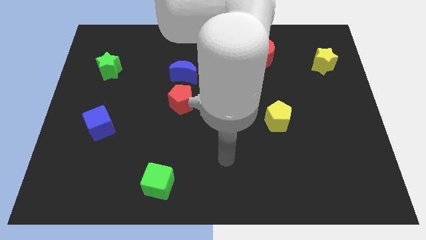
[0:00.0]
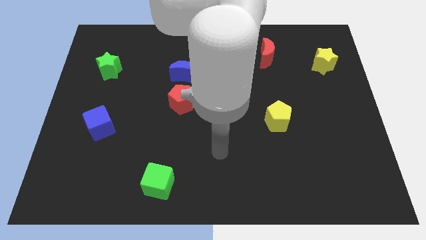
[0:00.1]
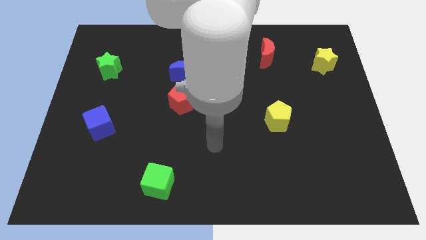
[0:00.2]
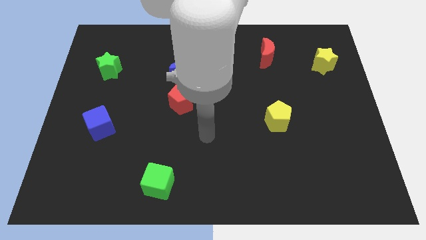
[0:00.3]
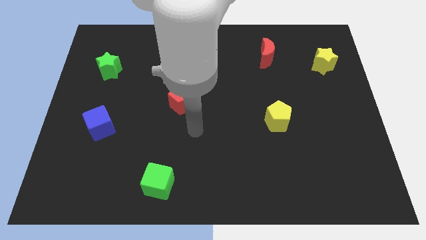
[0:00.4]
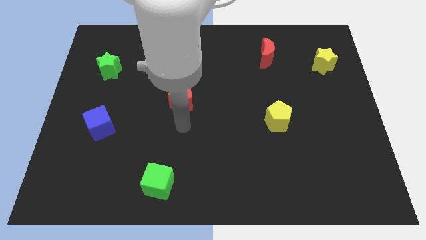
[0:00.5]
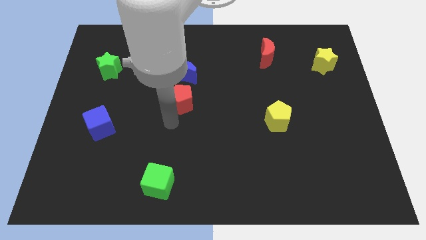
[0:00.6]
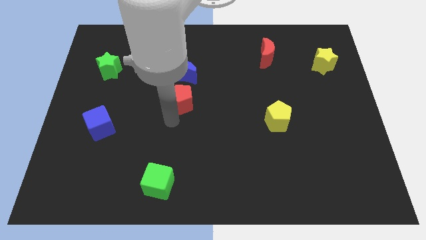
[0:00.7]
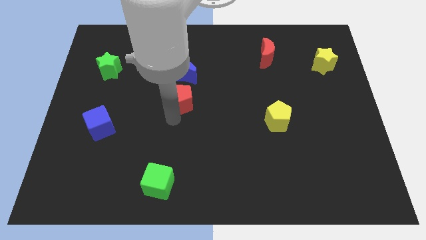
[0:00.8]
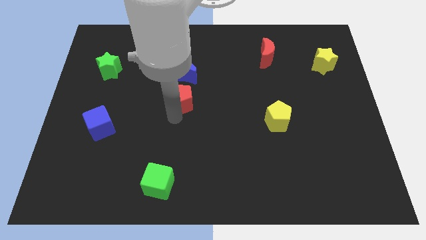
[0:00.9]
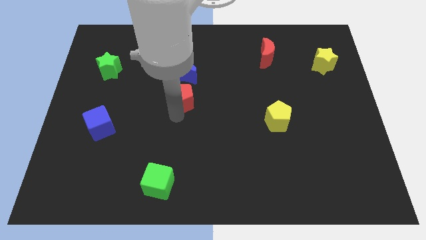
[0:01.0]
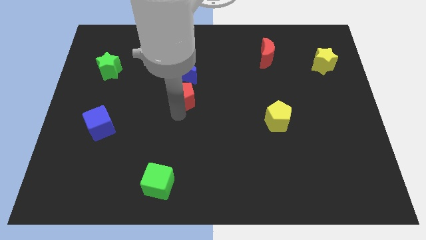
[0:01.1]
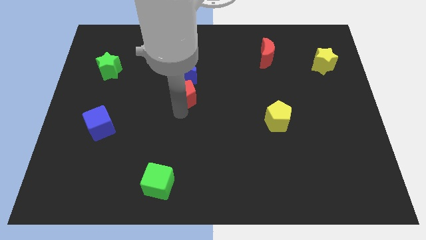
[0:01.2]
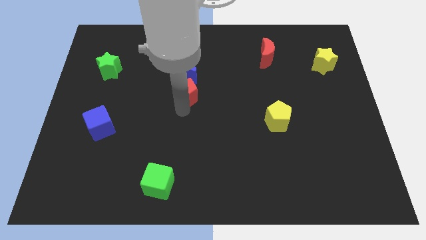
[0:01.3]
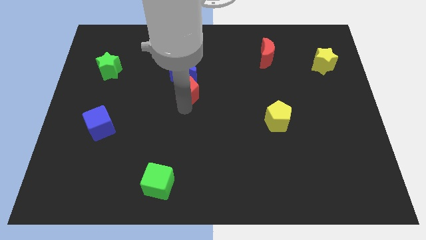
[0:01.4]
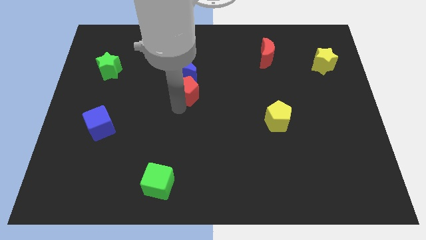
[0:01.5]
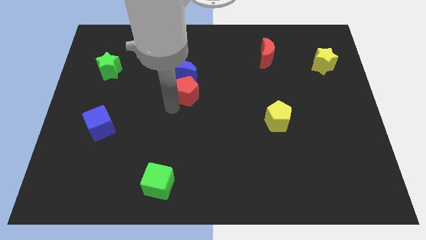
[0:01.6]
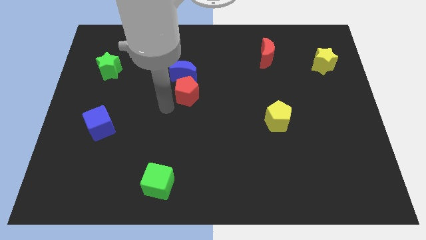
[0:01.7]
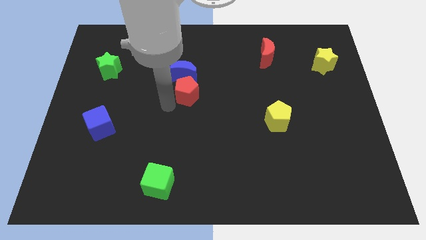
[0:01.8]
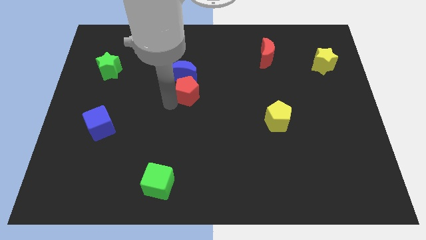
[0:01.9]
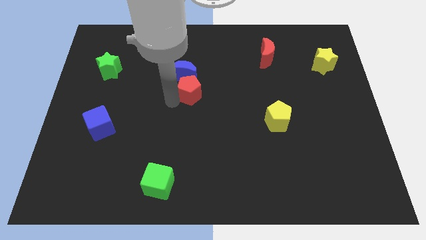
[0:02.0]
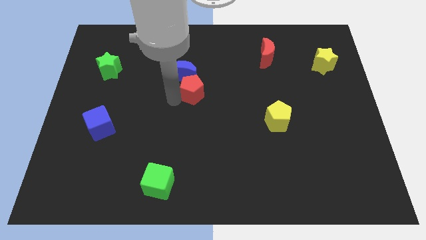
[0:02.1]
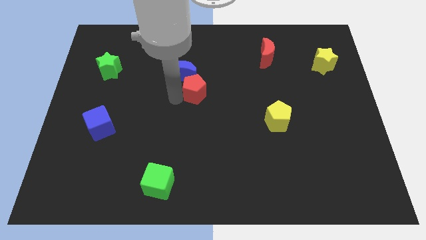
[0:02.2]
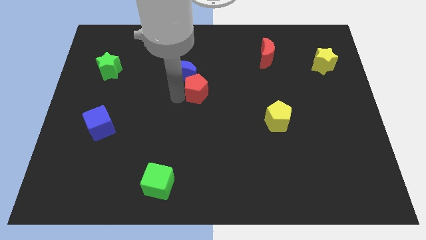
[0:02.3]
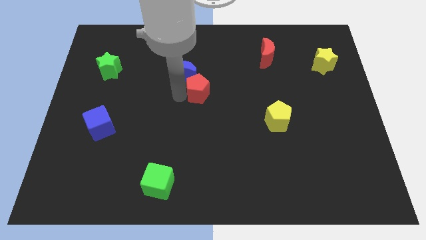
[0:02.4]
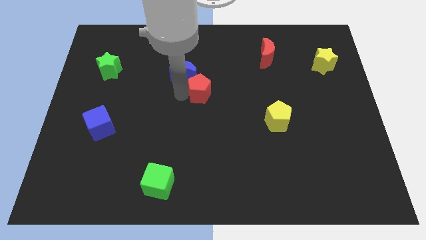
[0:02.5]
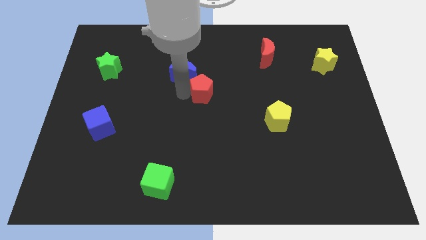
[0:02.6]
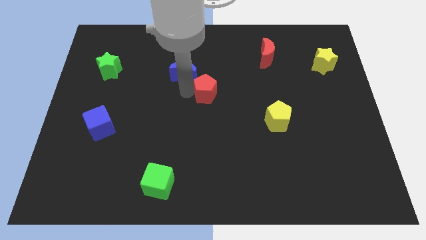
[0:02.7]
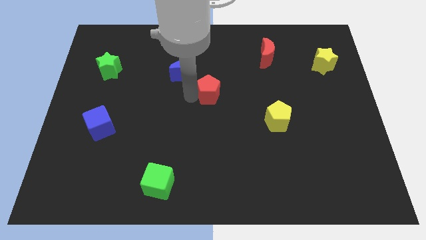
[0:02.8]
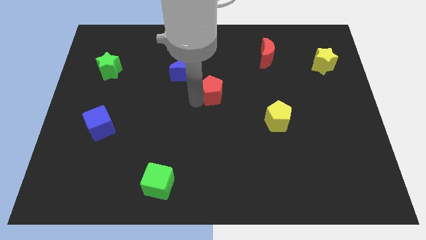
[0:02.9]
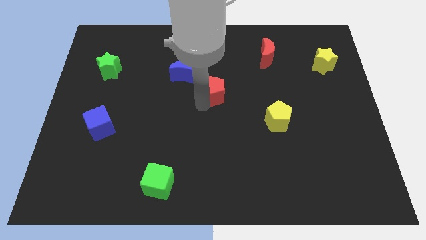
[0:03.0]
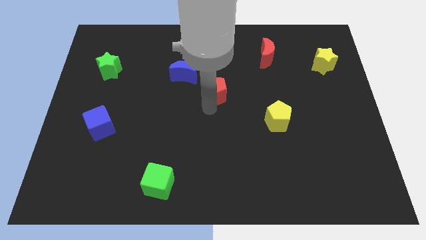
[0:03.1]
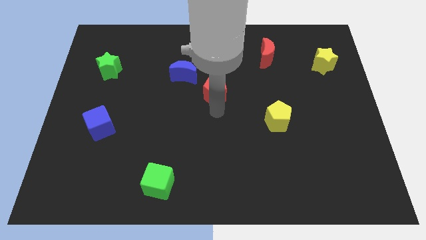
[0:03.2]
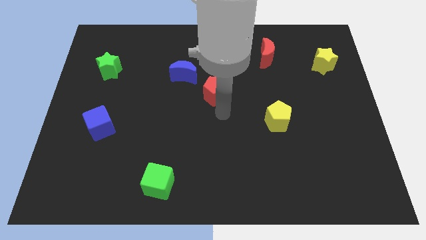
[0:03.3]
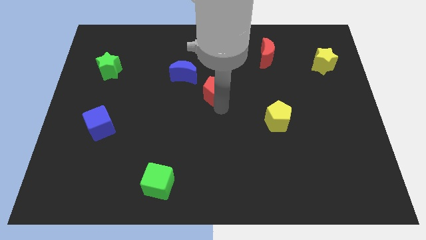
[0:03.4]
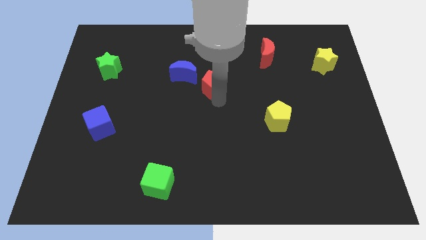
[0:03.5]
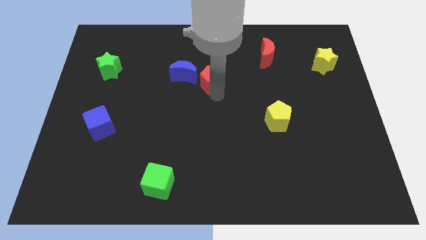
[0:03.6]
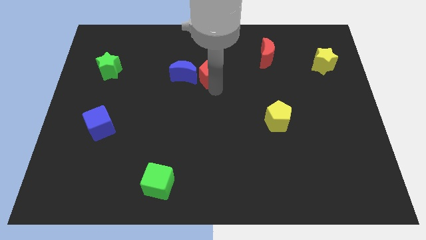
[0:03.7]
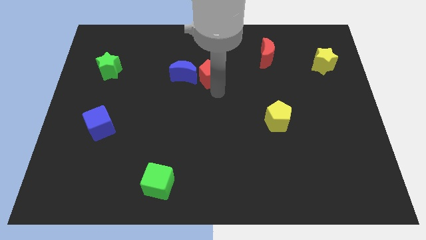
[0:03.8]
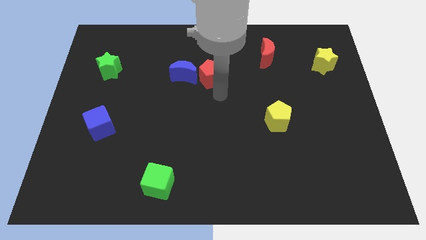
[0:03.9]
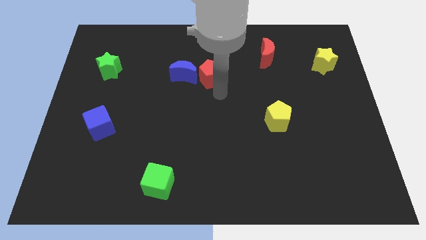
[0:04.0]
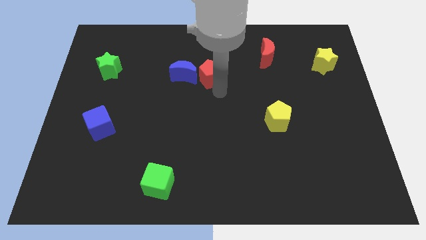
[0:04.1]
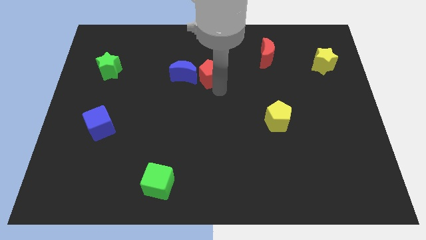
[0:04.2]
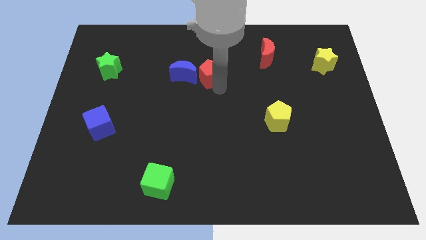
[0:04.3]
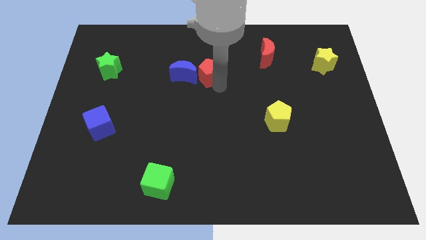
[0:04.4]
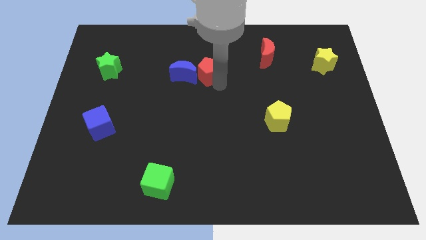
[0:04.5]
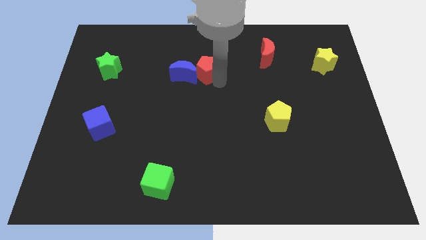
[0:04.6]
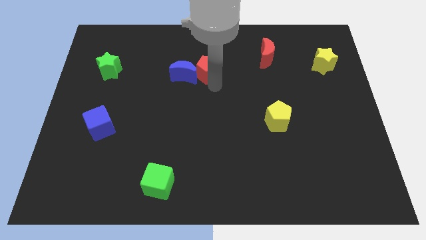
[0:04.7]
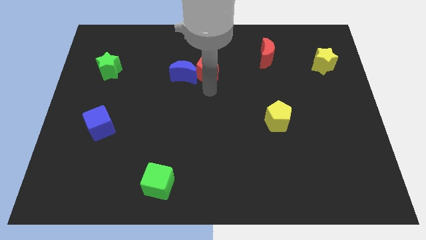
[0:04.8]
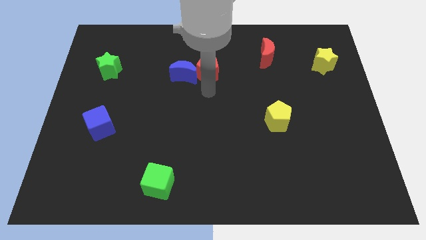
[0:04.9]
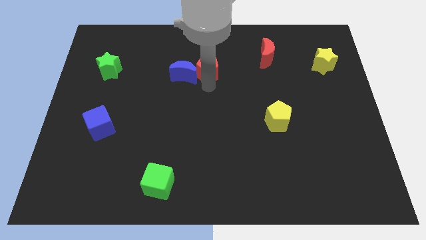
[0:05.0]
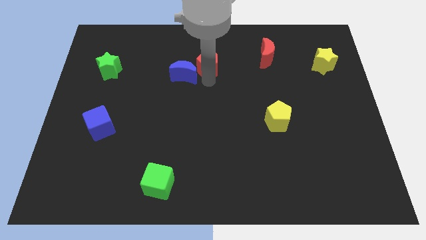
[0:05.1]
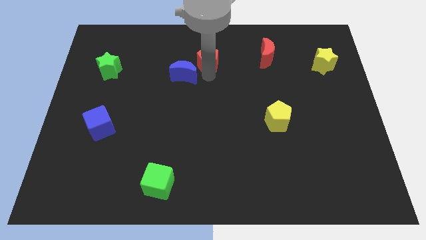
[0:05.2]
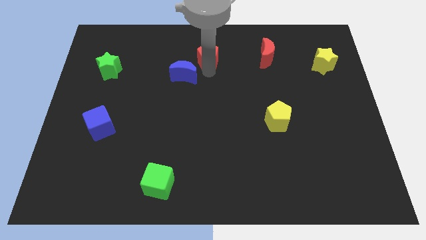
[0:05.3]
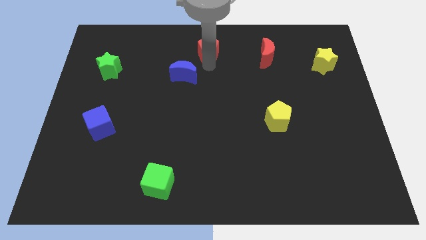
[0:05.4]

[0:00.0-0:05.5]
put the red pentagon to the towards your base

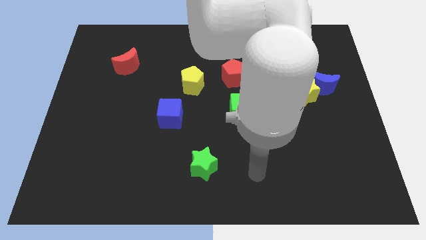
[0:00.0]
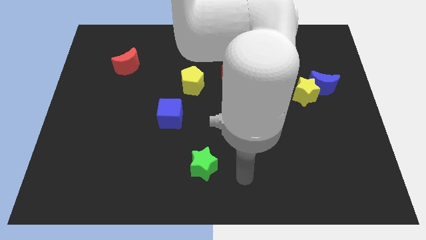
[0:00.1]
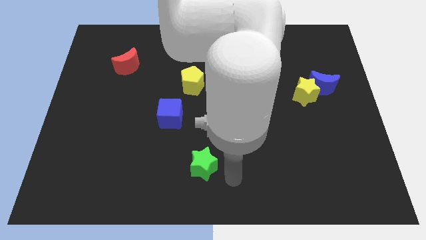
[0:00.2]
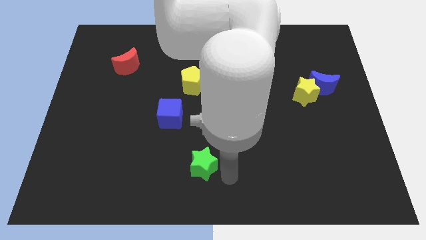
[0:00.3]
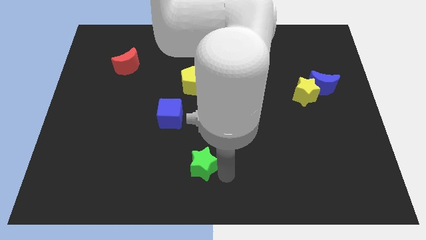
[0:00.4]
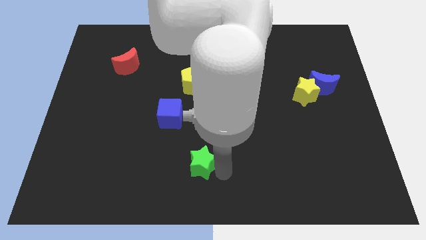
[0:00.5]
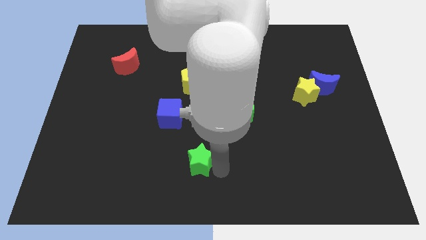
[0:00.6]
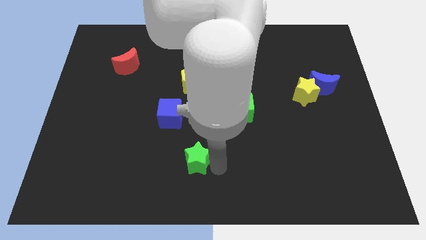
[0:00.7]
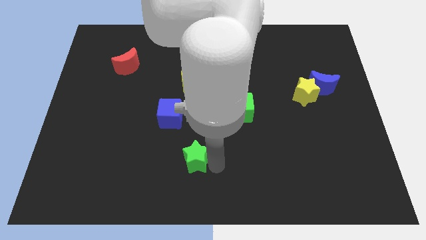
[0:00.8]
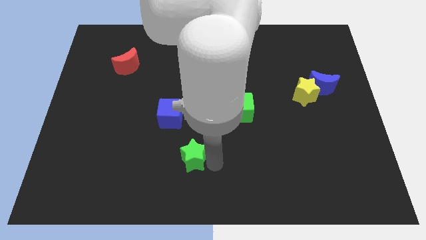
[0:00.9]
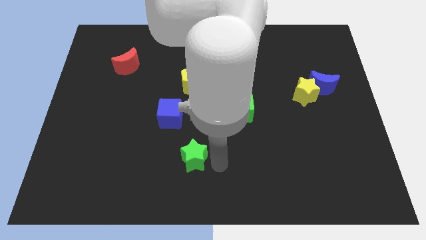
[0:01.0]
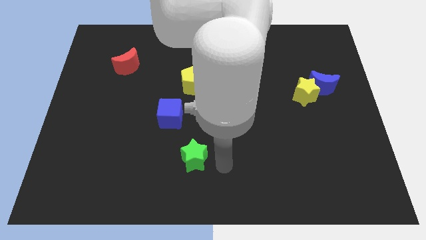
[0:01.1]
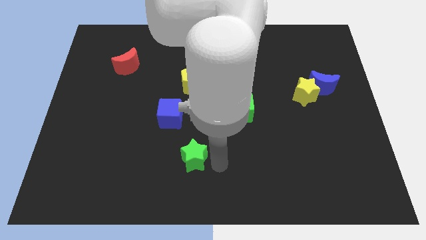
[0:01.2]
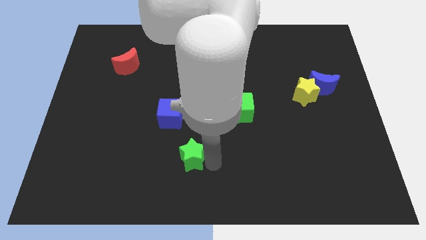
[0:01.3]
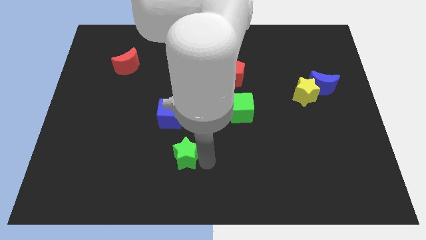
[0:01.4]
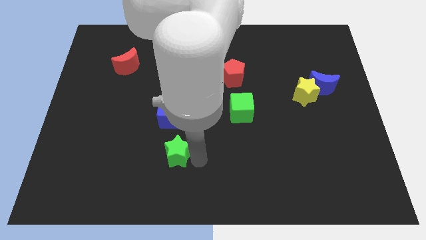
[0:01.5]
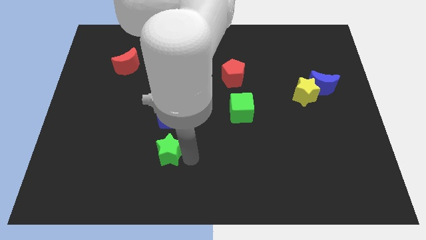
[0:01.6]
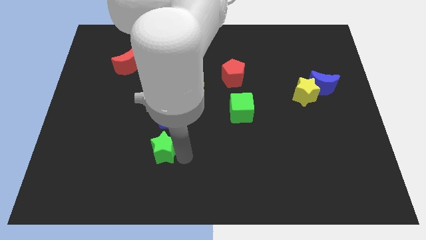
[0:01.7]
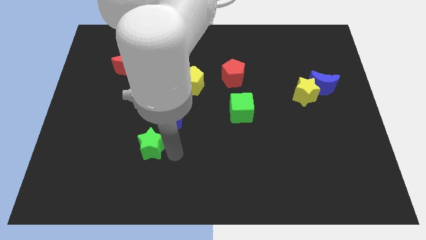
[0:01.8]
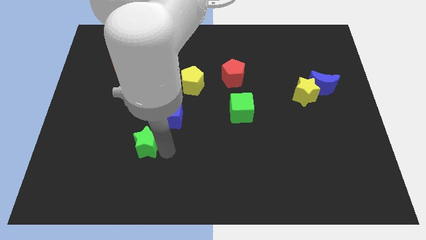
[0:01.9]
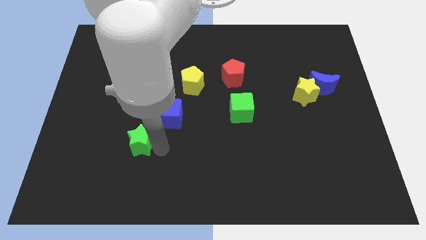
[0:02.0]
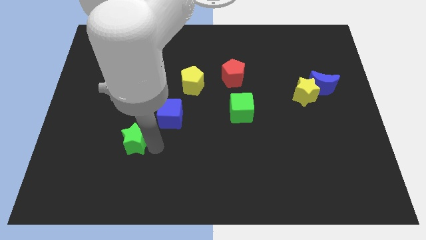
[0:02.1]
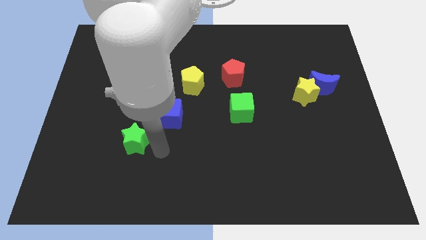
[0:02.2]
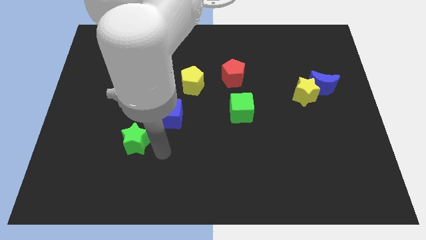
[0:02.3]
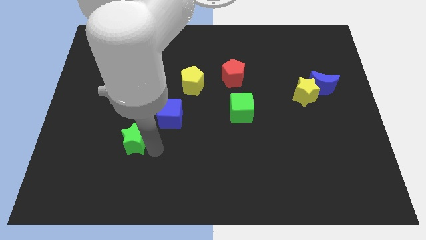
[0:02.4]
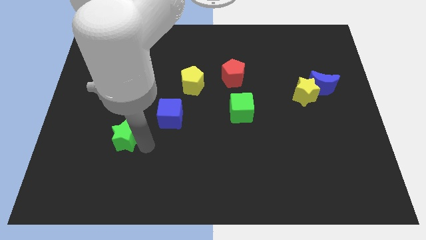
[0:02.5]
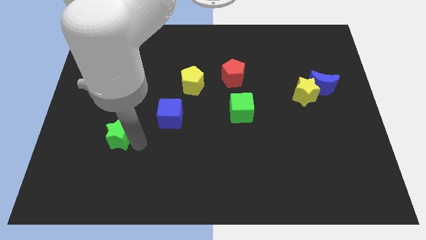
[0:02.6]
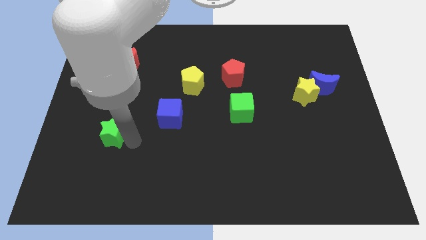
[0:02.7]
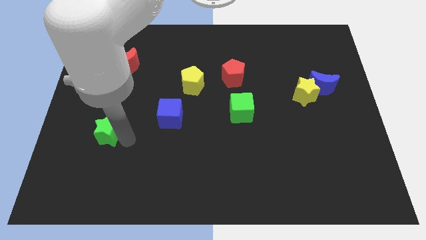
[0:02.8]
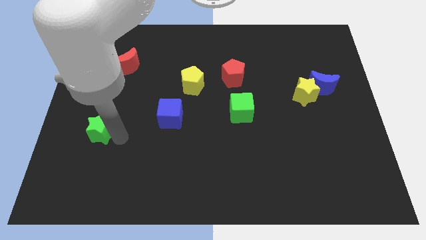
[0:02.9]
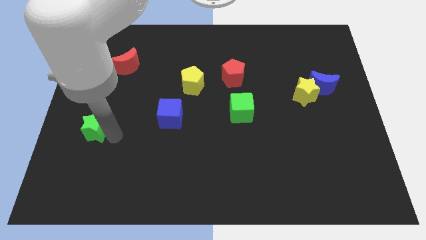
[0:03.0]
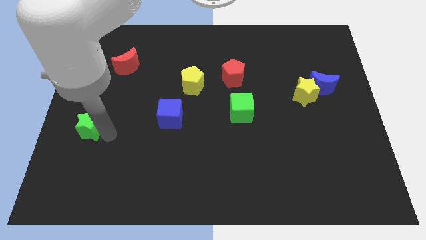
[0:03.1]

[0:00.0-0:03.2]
push the green star to the left side
